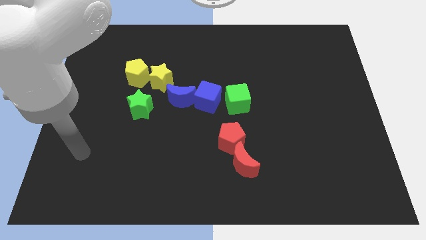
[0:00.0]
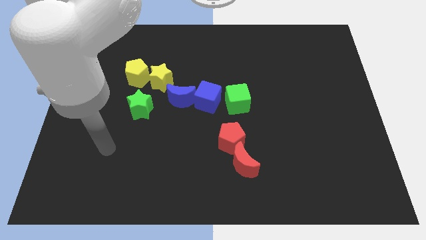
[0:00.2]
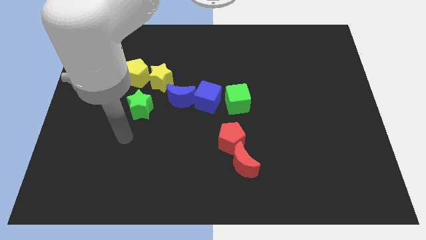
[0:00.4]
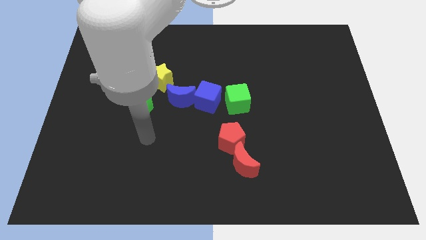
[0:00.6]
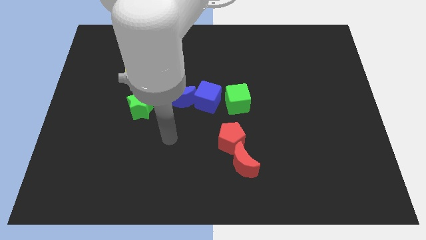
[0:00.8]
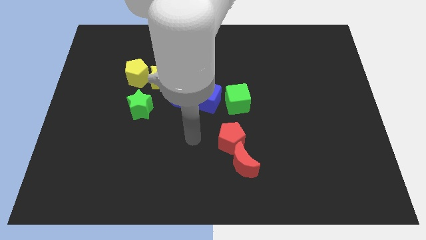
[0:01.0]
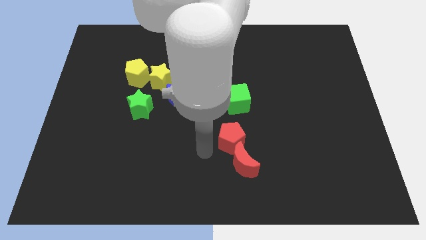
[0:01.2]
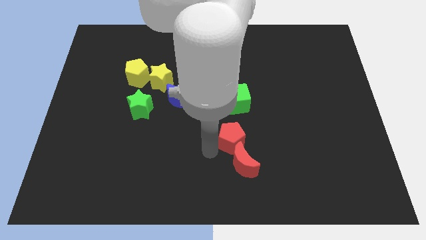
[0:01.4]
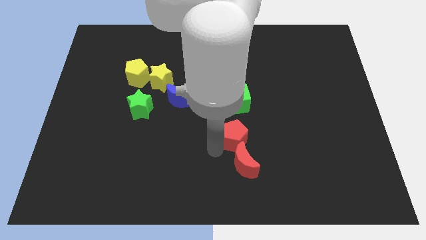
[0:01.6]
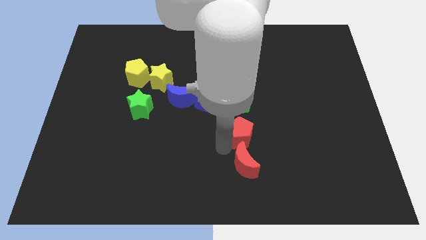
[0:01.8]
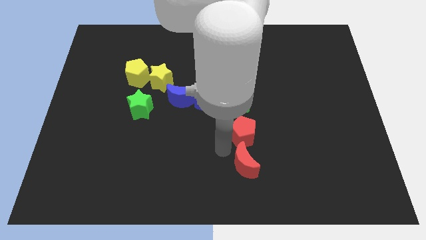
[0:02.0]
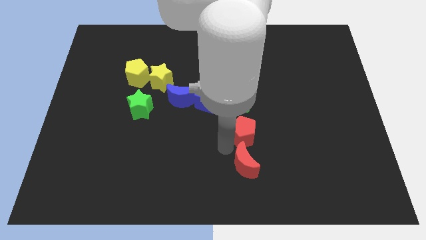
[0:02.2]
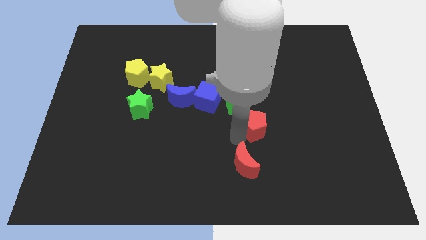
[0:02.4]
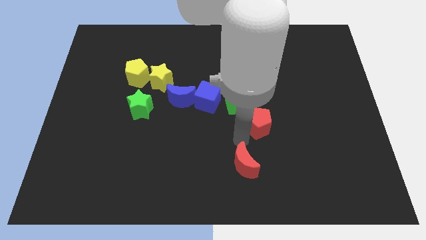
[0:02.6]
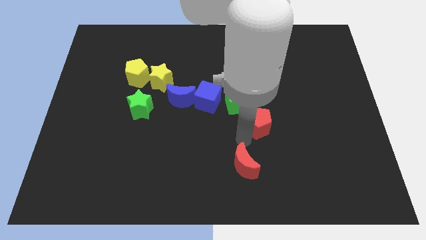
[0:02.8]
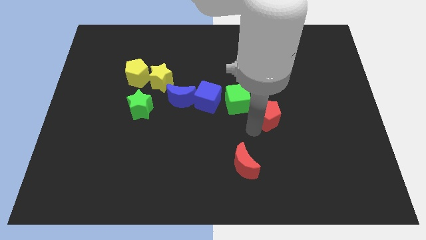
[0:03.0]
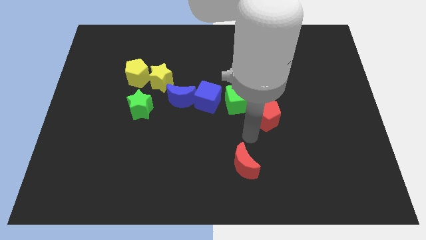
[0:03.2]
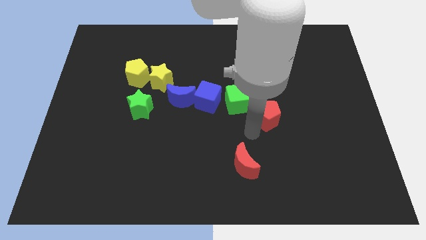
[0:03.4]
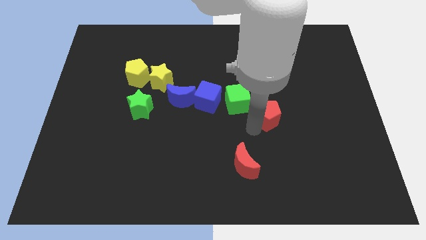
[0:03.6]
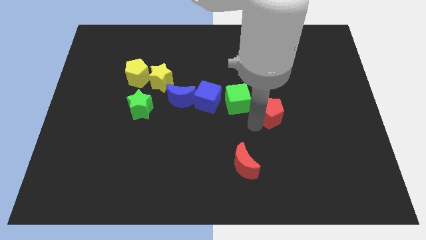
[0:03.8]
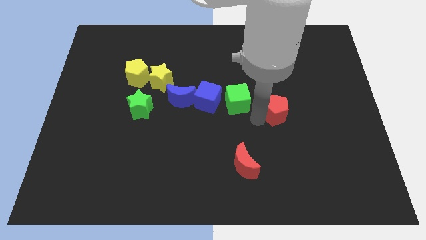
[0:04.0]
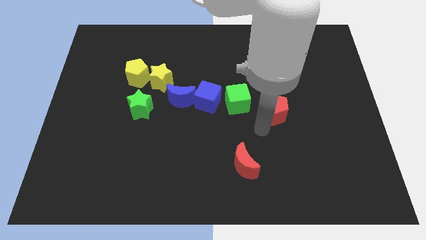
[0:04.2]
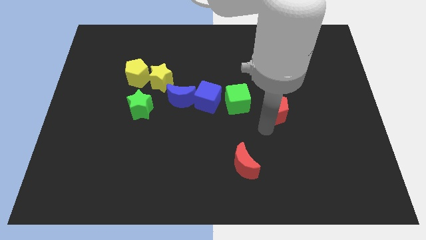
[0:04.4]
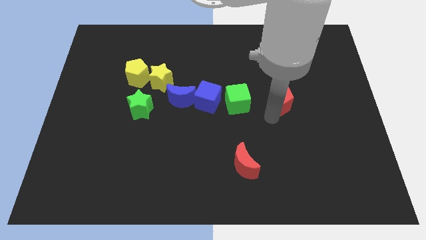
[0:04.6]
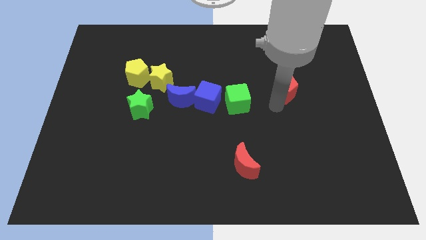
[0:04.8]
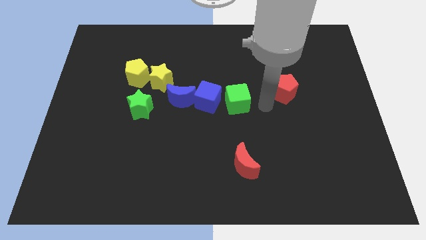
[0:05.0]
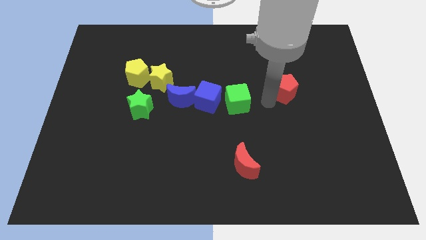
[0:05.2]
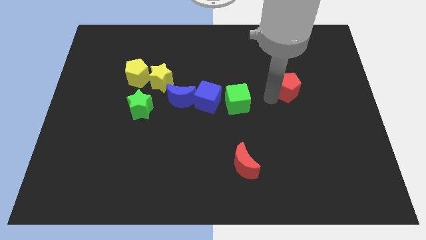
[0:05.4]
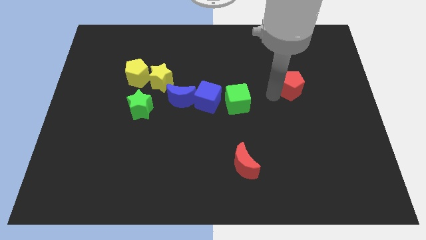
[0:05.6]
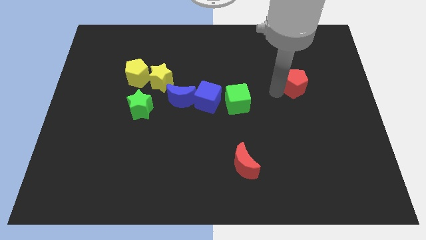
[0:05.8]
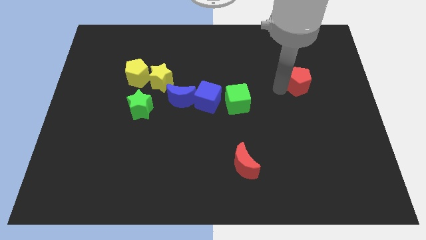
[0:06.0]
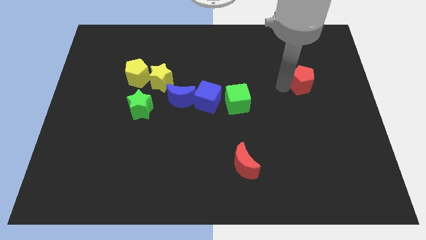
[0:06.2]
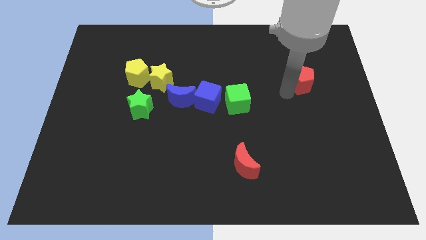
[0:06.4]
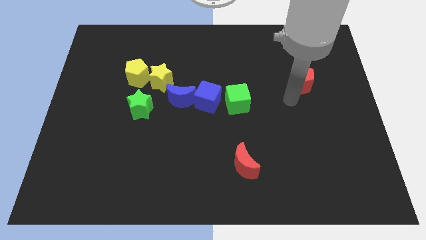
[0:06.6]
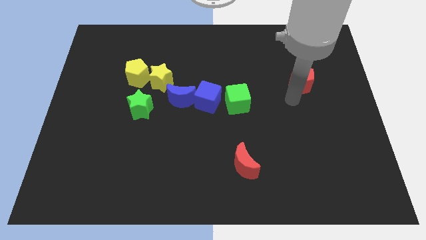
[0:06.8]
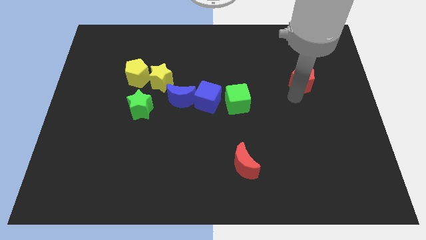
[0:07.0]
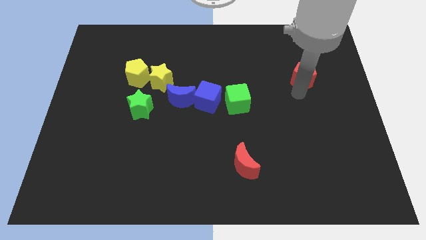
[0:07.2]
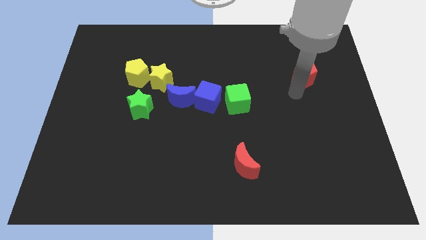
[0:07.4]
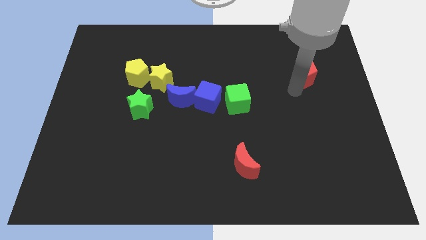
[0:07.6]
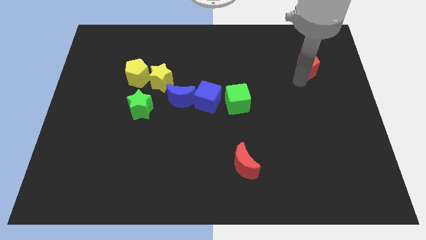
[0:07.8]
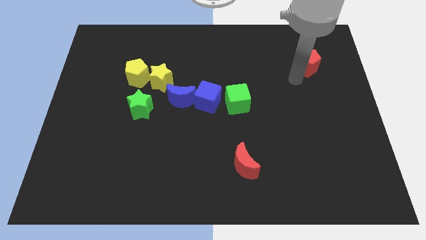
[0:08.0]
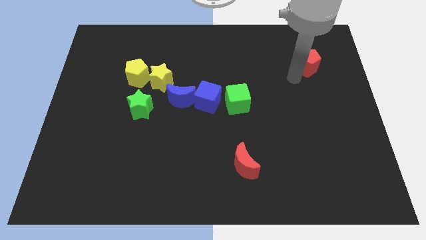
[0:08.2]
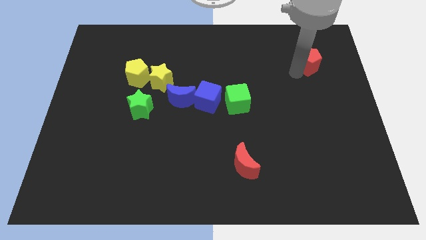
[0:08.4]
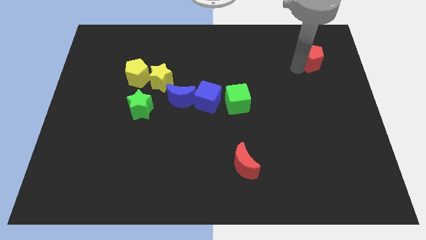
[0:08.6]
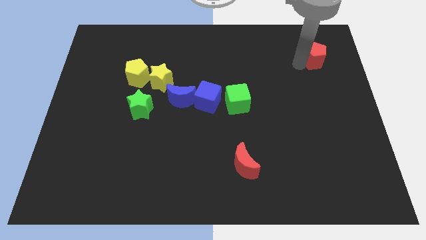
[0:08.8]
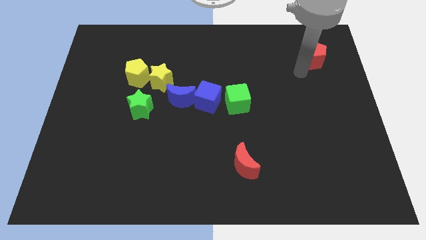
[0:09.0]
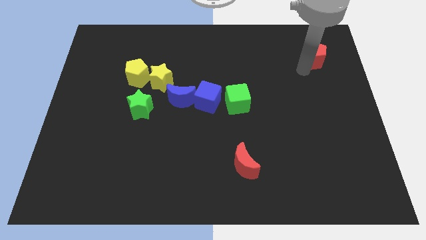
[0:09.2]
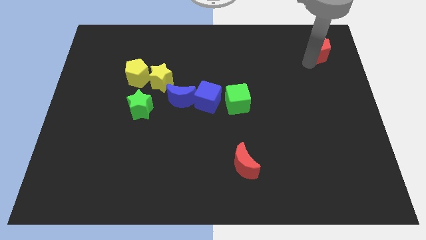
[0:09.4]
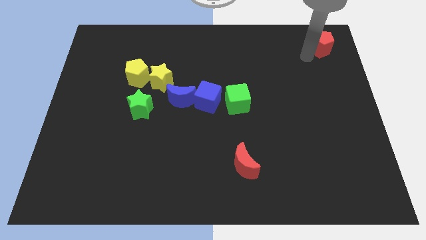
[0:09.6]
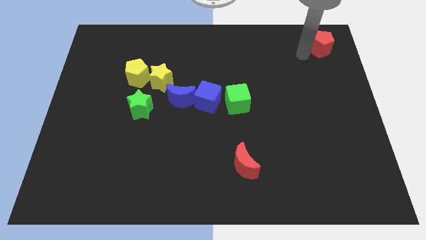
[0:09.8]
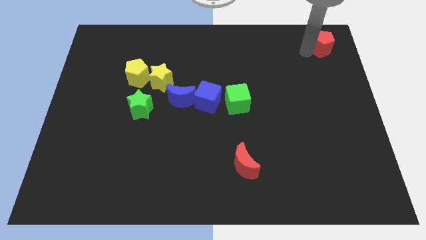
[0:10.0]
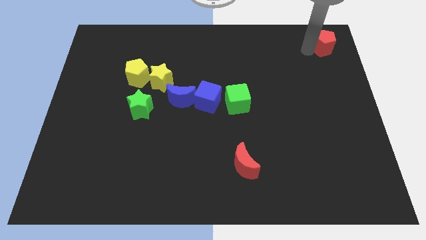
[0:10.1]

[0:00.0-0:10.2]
slide the red pentagon to the top right of the board

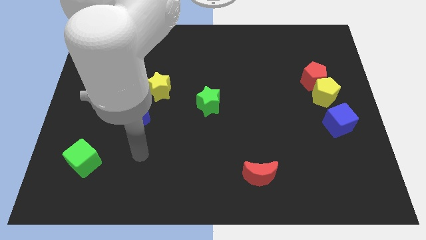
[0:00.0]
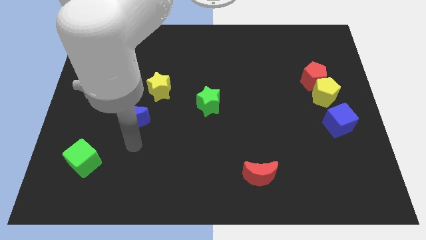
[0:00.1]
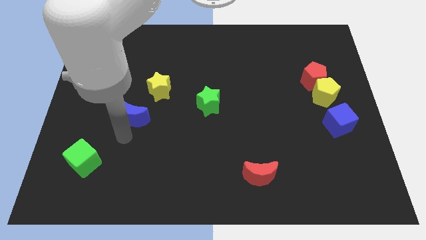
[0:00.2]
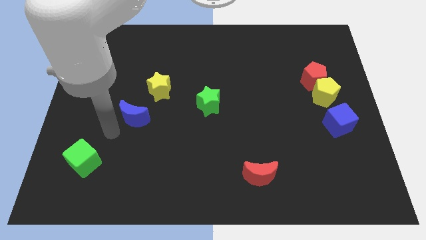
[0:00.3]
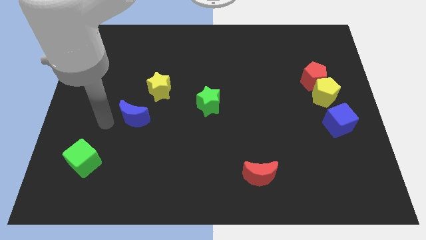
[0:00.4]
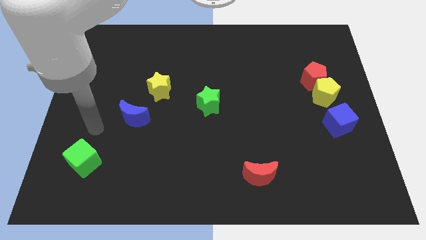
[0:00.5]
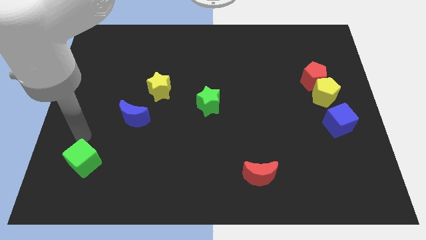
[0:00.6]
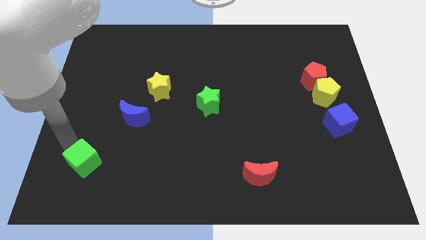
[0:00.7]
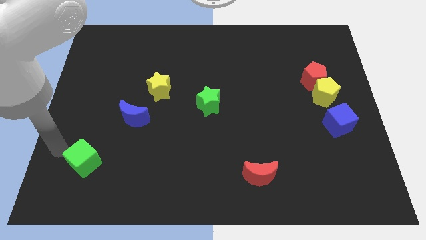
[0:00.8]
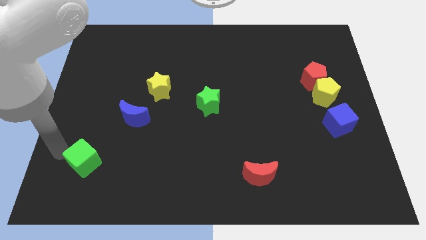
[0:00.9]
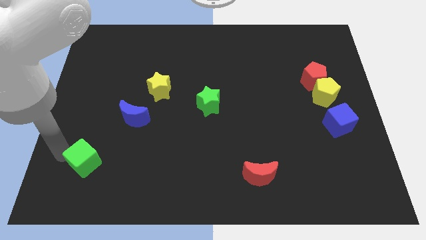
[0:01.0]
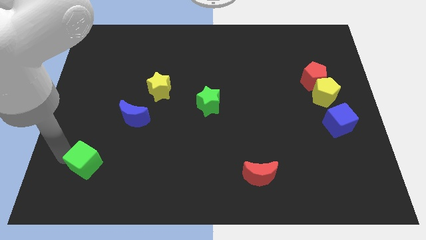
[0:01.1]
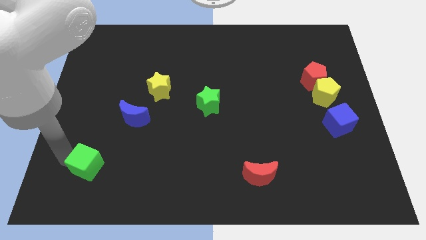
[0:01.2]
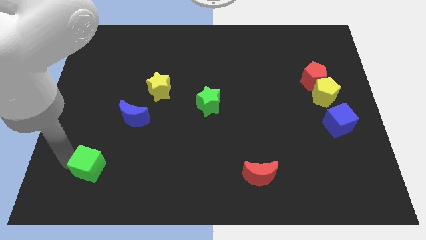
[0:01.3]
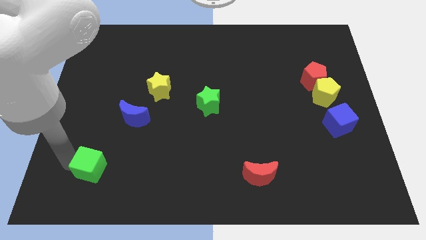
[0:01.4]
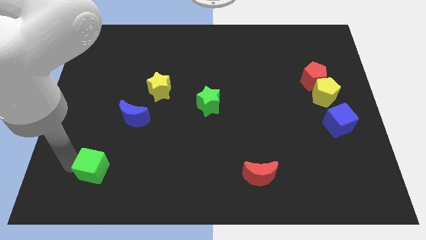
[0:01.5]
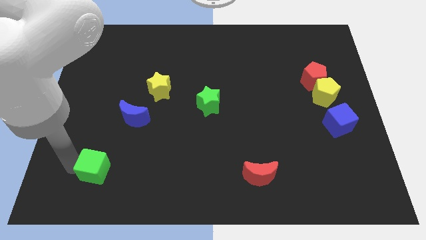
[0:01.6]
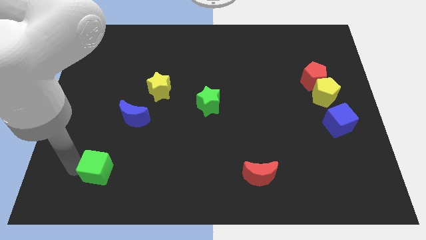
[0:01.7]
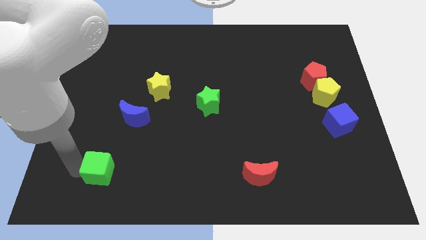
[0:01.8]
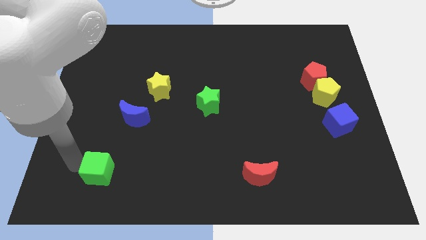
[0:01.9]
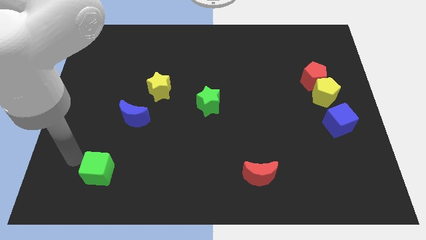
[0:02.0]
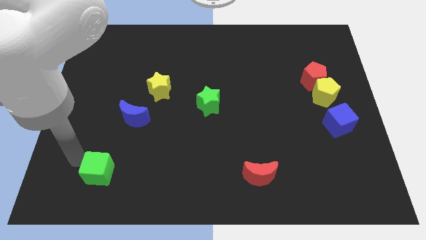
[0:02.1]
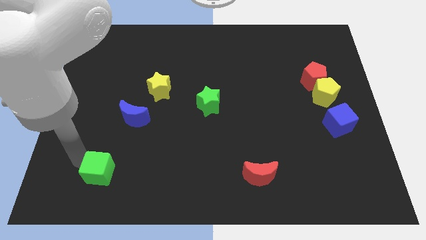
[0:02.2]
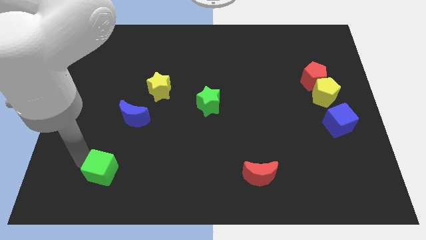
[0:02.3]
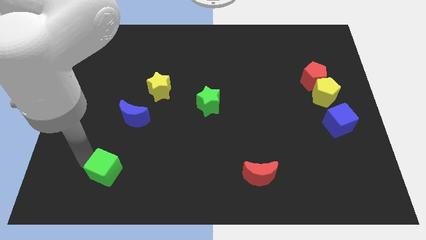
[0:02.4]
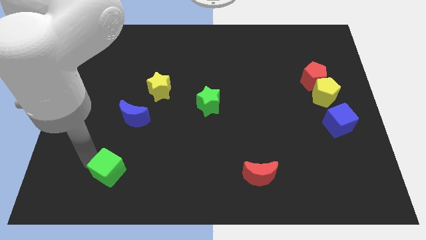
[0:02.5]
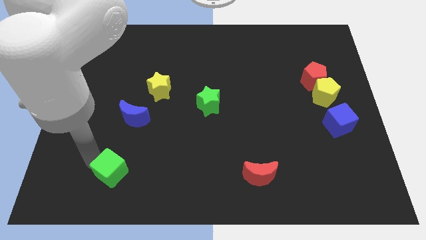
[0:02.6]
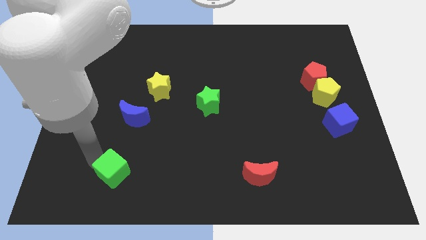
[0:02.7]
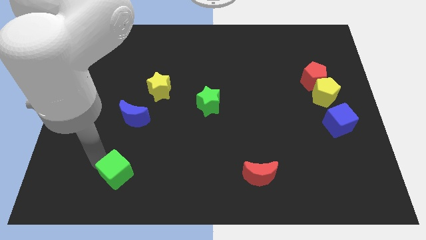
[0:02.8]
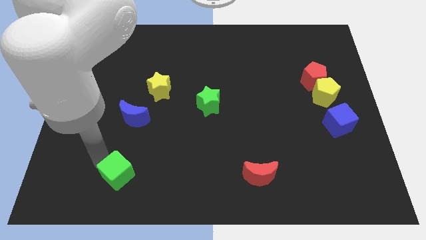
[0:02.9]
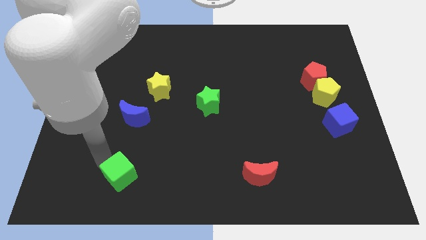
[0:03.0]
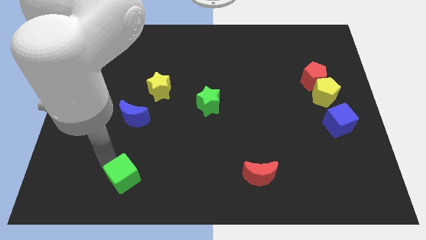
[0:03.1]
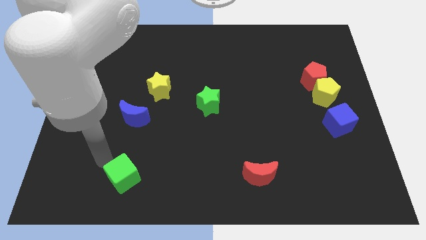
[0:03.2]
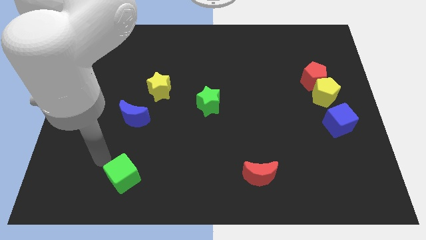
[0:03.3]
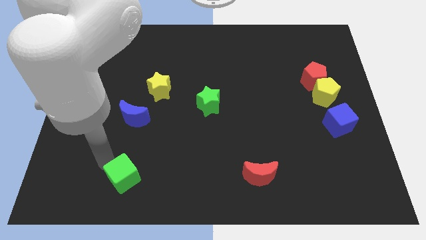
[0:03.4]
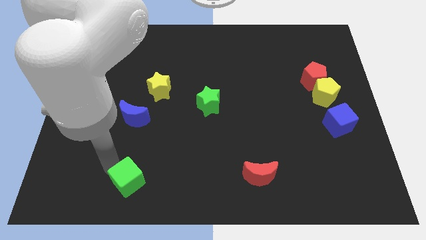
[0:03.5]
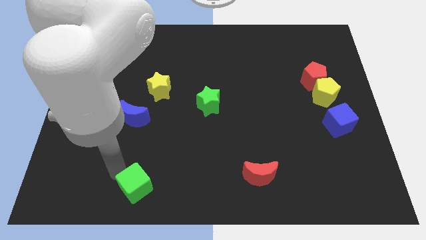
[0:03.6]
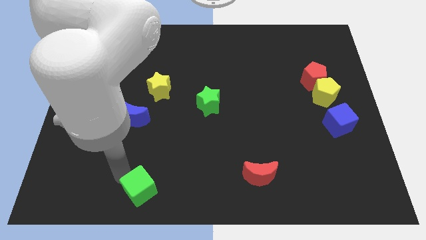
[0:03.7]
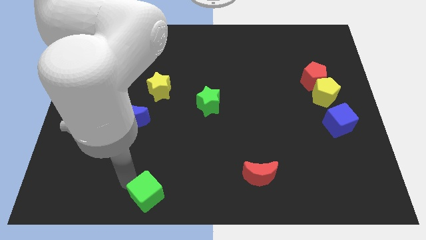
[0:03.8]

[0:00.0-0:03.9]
push the green cube to the bottom
